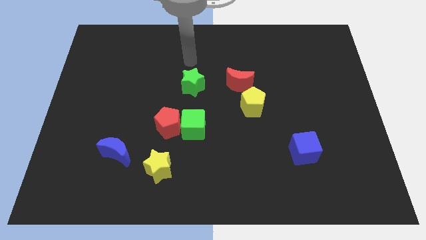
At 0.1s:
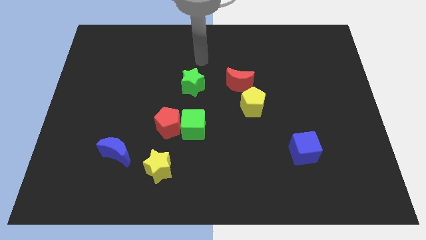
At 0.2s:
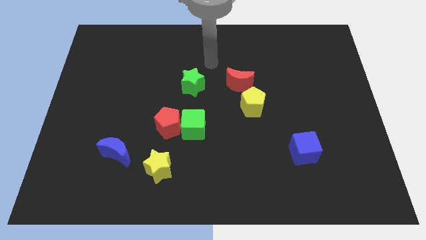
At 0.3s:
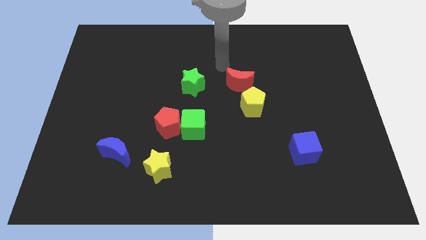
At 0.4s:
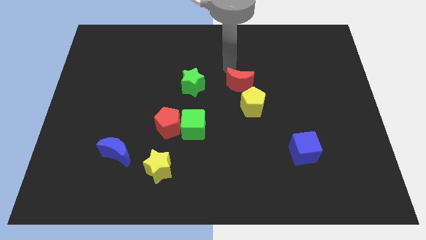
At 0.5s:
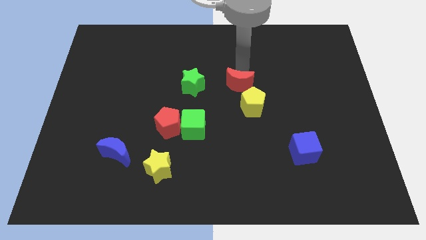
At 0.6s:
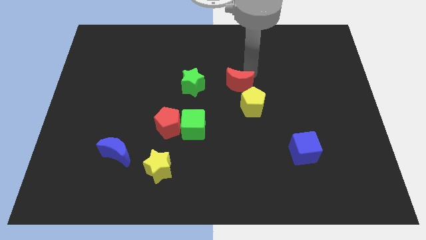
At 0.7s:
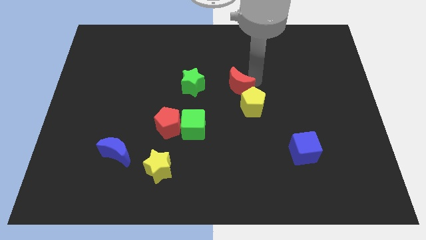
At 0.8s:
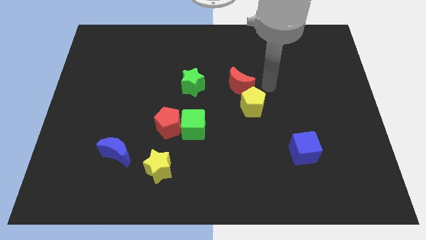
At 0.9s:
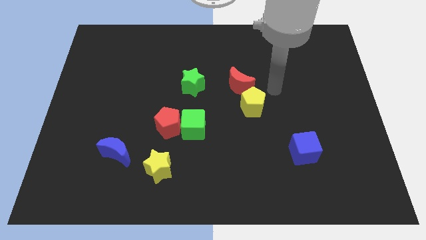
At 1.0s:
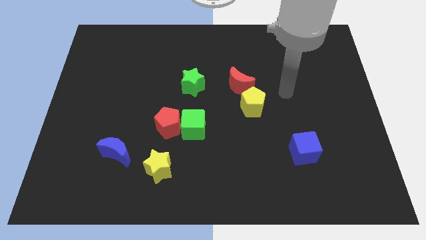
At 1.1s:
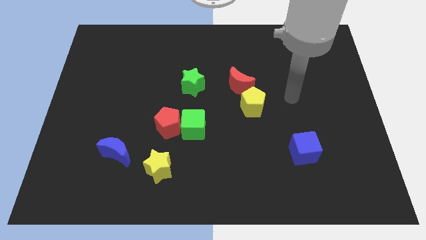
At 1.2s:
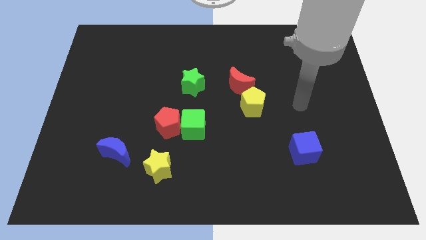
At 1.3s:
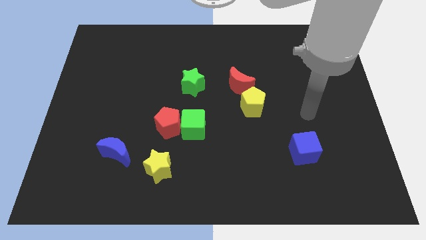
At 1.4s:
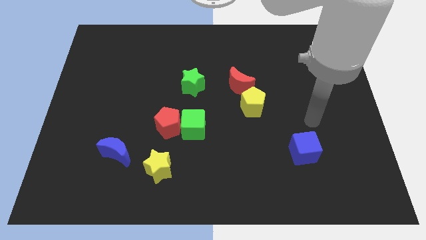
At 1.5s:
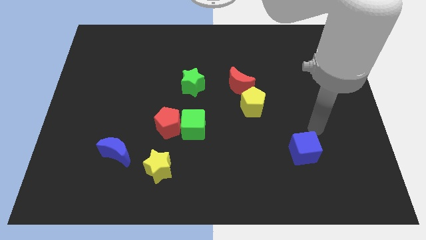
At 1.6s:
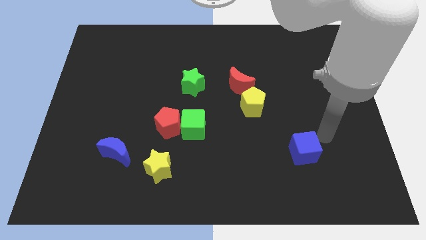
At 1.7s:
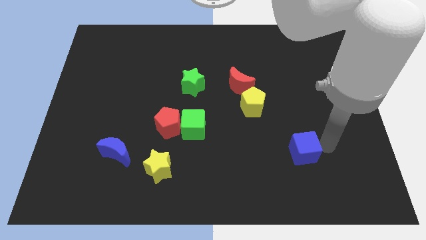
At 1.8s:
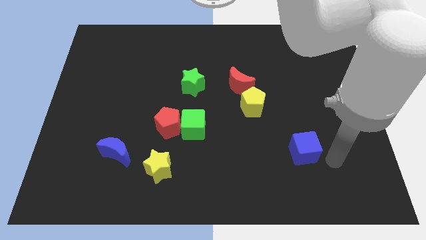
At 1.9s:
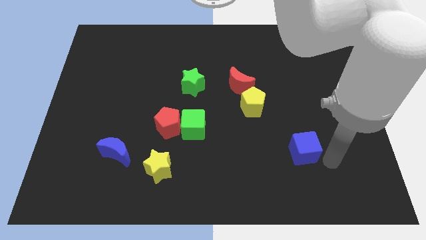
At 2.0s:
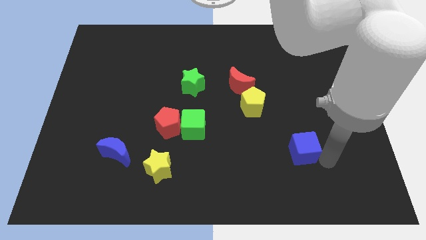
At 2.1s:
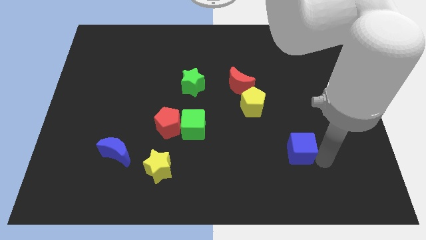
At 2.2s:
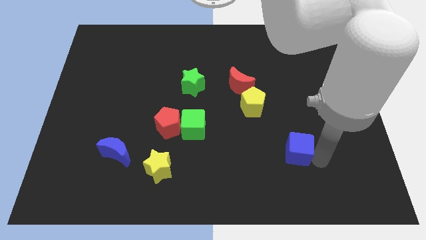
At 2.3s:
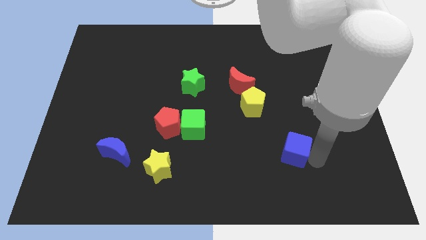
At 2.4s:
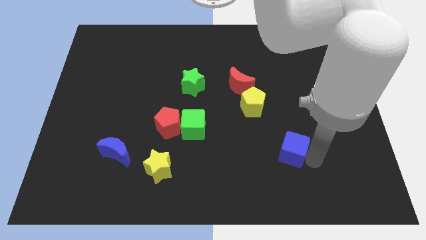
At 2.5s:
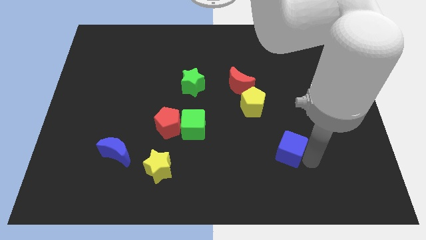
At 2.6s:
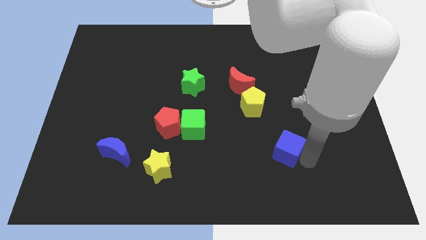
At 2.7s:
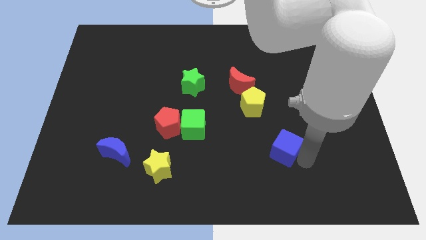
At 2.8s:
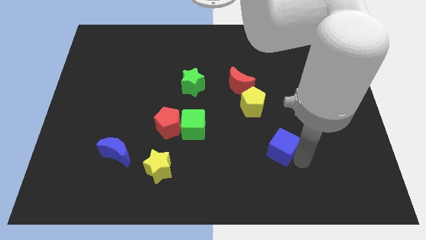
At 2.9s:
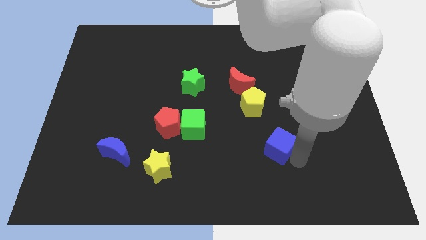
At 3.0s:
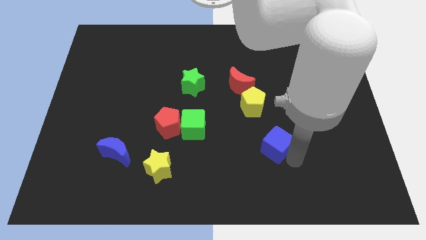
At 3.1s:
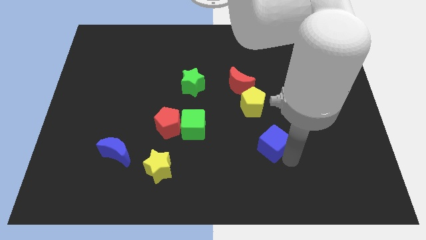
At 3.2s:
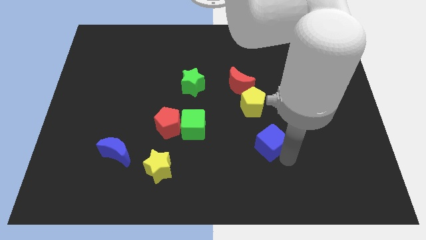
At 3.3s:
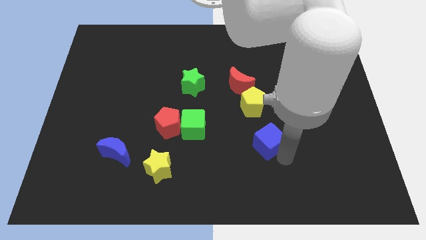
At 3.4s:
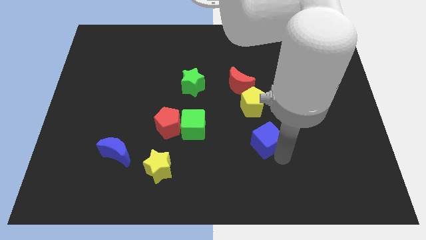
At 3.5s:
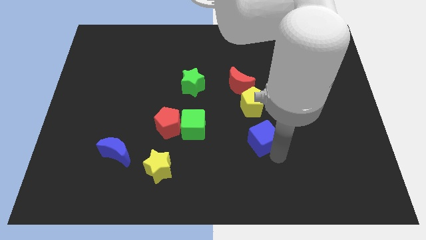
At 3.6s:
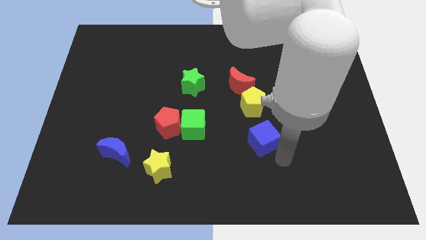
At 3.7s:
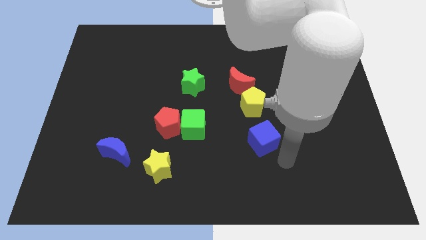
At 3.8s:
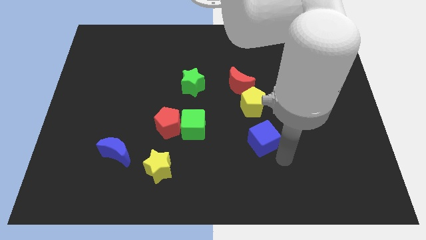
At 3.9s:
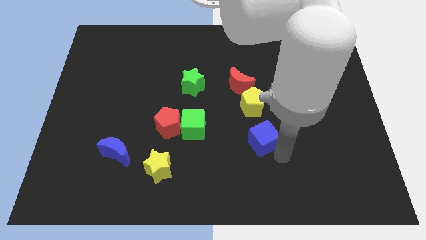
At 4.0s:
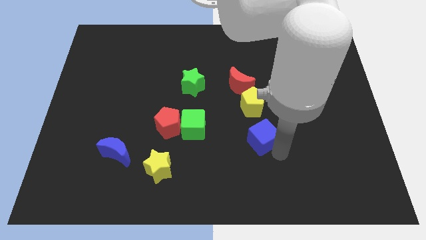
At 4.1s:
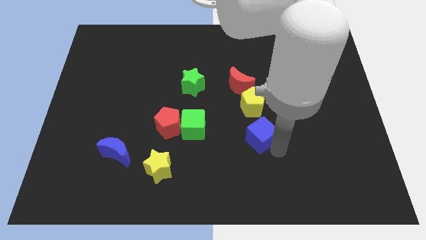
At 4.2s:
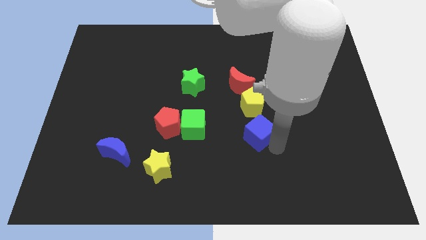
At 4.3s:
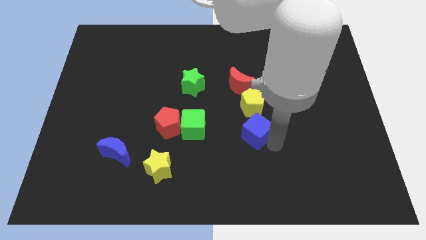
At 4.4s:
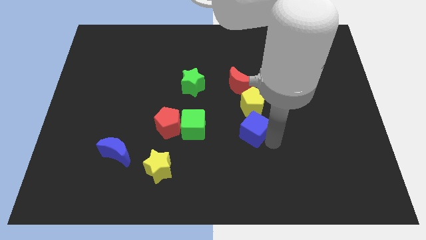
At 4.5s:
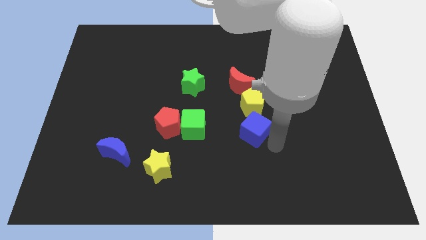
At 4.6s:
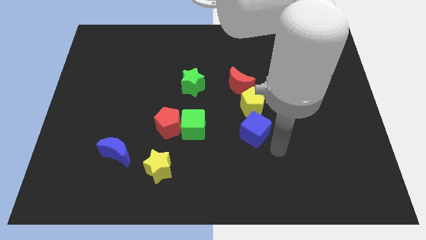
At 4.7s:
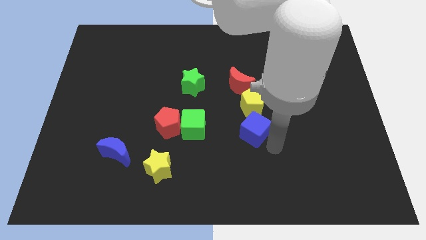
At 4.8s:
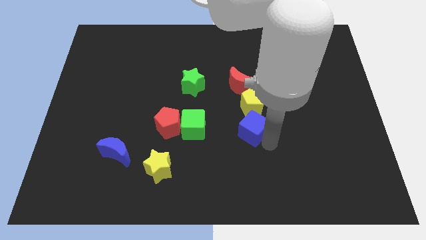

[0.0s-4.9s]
put the blue cube to the center

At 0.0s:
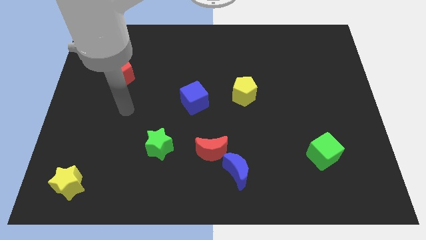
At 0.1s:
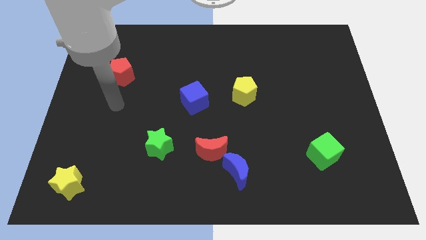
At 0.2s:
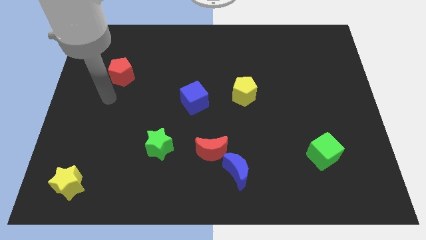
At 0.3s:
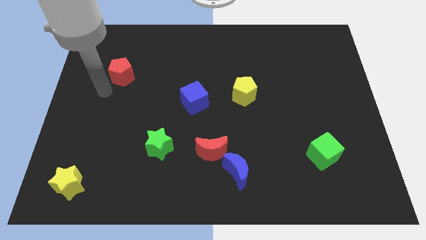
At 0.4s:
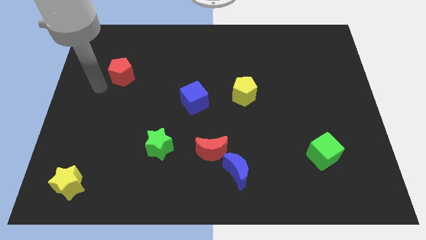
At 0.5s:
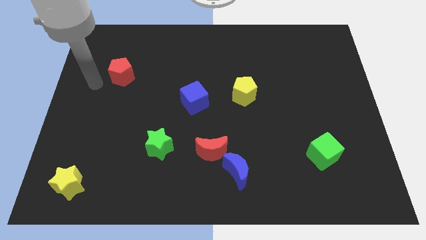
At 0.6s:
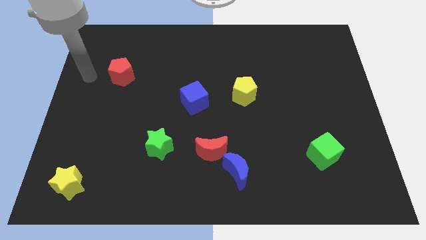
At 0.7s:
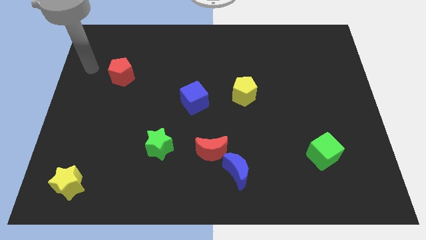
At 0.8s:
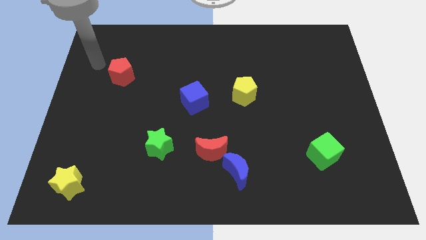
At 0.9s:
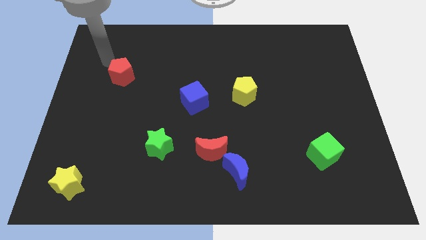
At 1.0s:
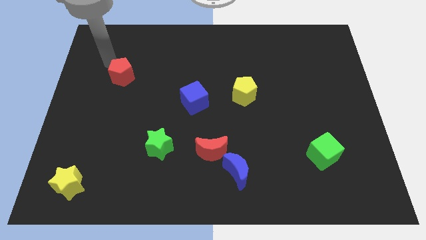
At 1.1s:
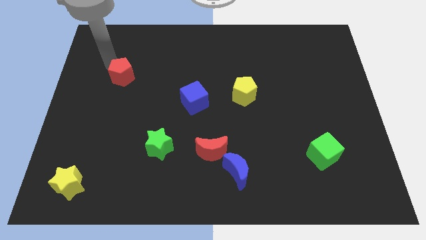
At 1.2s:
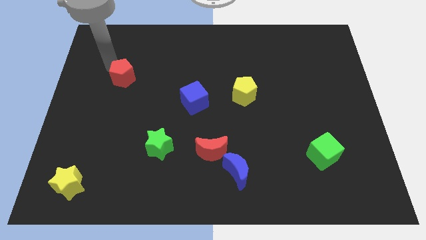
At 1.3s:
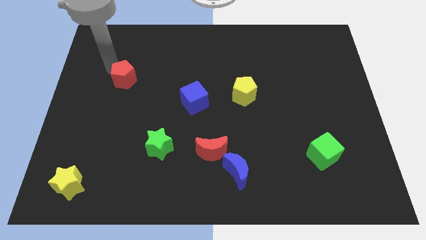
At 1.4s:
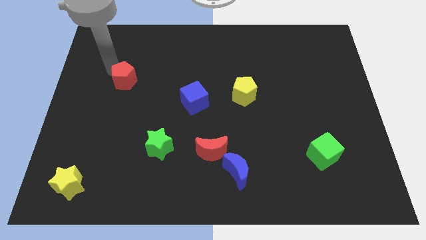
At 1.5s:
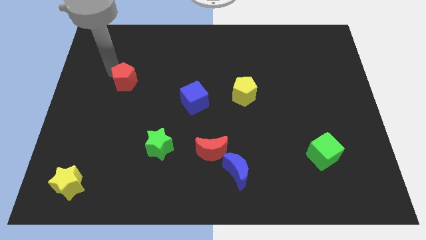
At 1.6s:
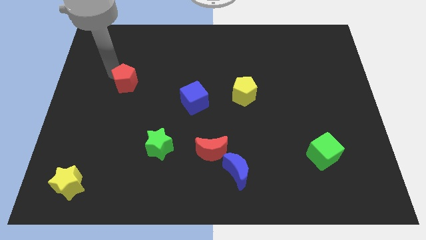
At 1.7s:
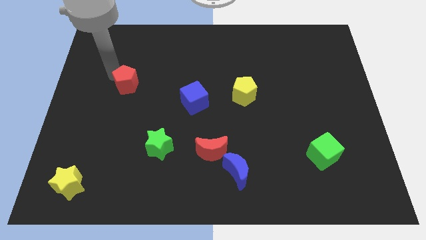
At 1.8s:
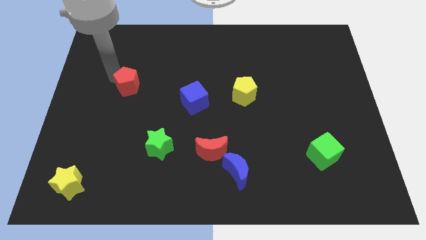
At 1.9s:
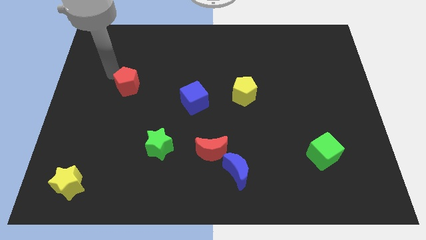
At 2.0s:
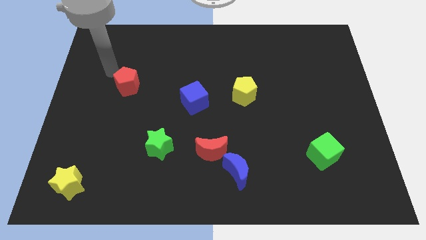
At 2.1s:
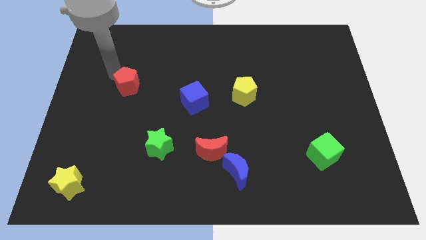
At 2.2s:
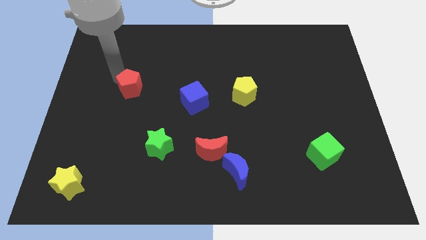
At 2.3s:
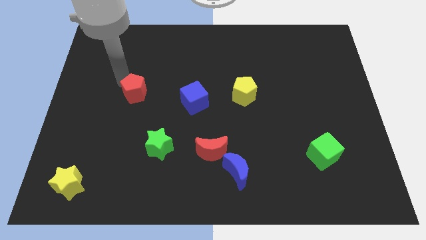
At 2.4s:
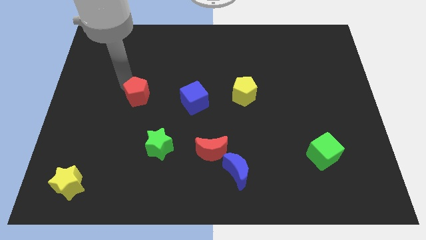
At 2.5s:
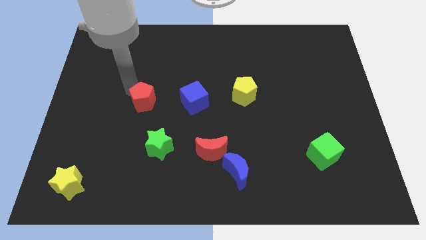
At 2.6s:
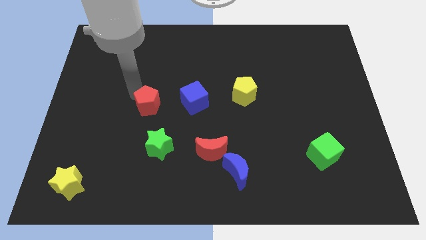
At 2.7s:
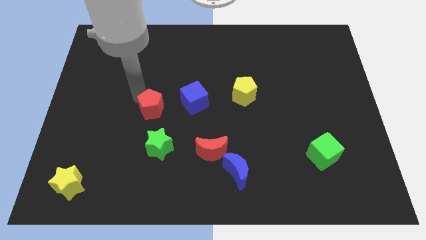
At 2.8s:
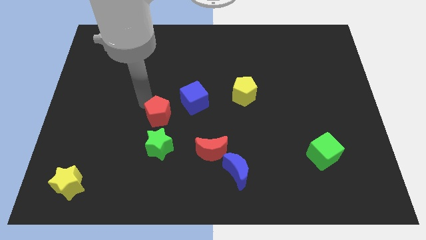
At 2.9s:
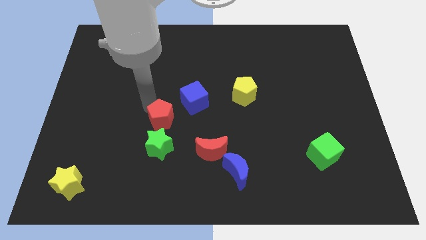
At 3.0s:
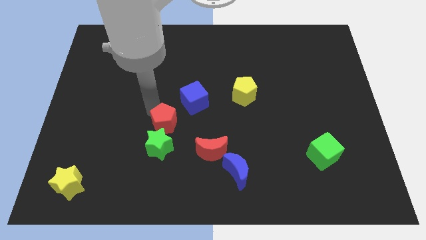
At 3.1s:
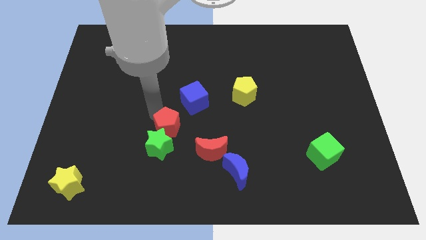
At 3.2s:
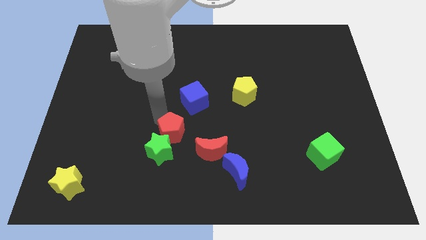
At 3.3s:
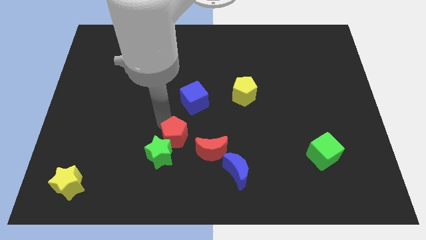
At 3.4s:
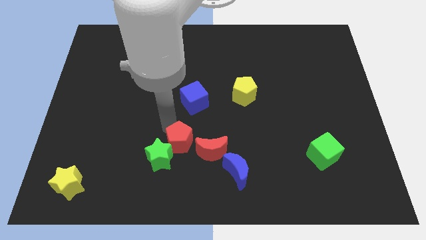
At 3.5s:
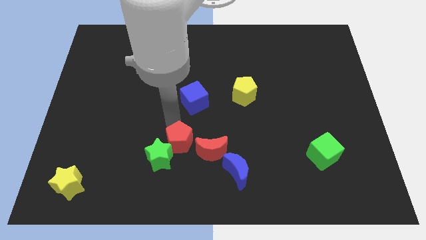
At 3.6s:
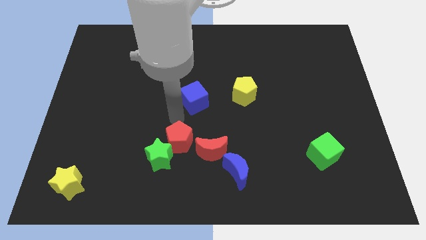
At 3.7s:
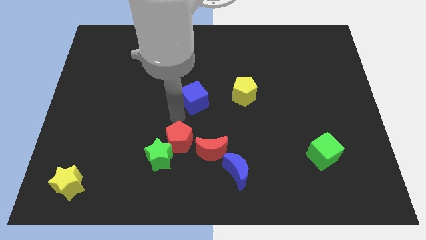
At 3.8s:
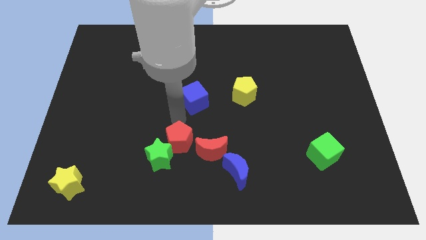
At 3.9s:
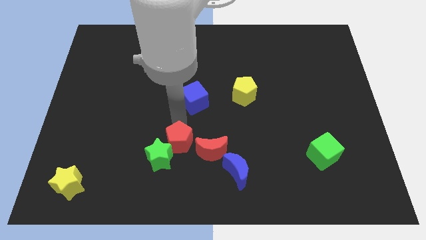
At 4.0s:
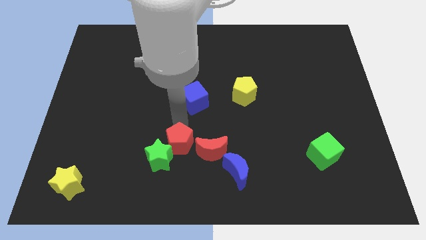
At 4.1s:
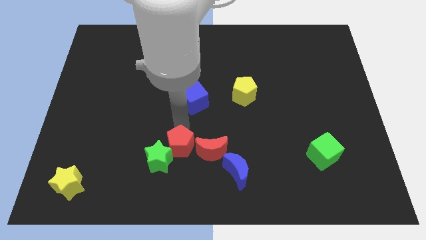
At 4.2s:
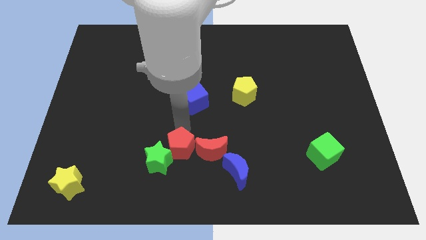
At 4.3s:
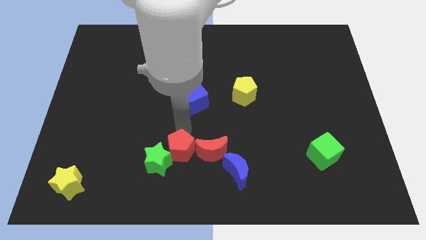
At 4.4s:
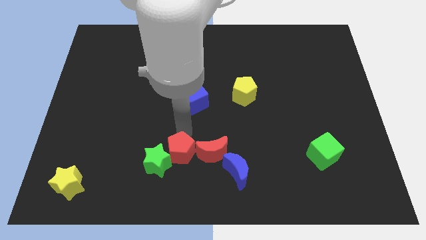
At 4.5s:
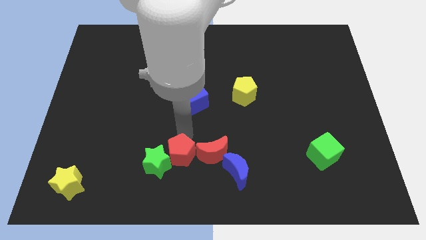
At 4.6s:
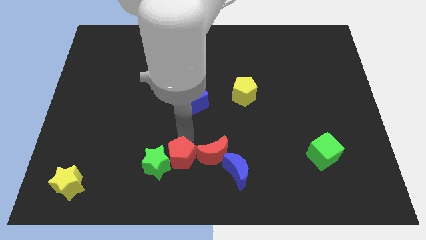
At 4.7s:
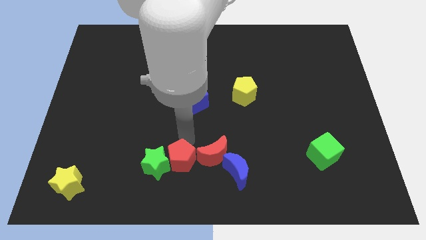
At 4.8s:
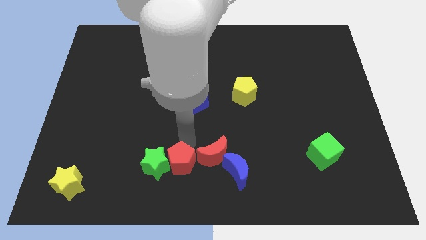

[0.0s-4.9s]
put the red pentagon to the bottom
